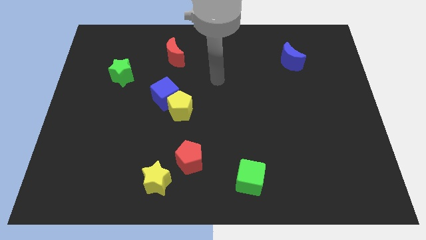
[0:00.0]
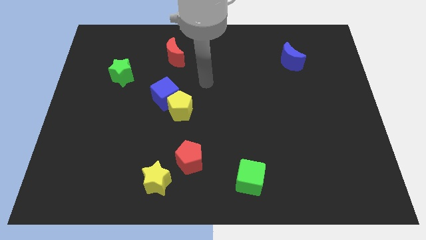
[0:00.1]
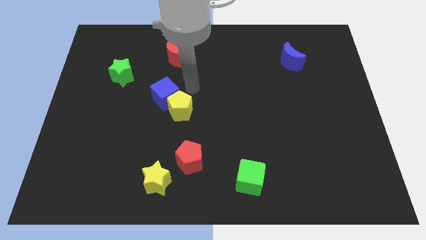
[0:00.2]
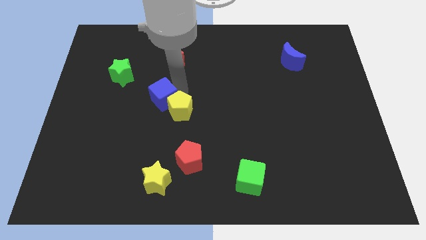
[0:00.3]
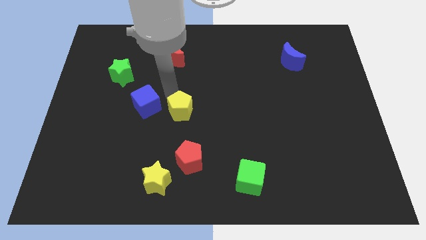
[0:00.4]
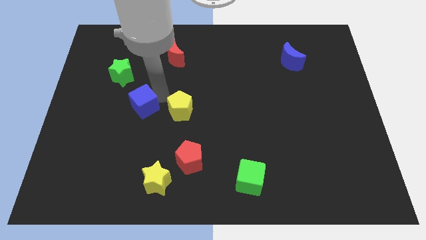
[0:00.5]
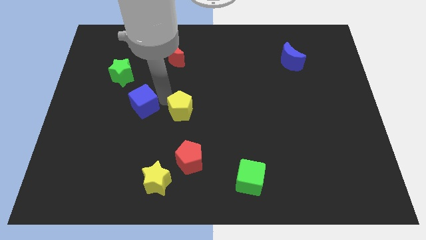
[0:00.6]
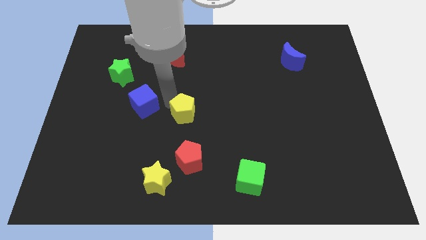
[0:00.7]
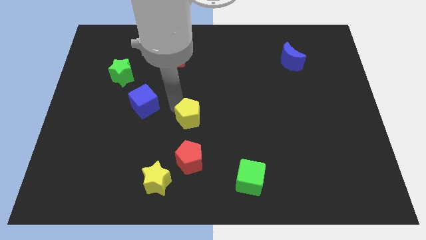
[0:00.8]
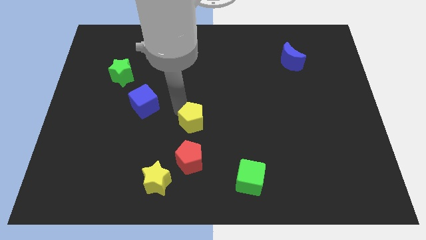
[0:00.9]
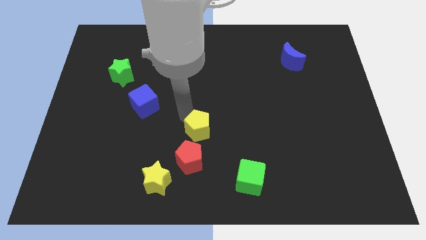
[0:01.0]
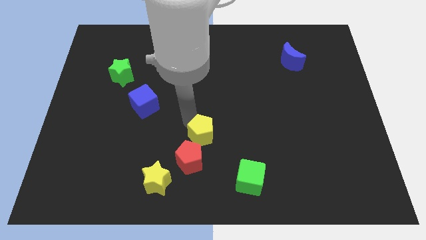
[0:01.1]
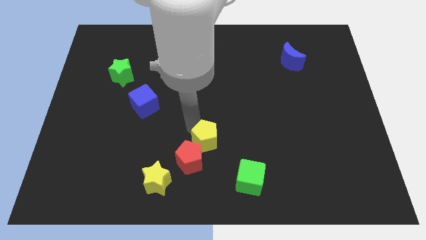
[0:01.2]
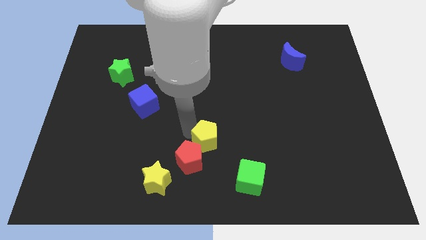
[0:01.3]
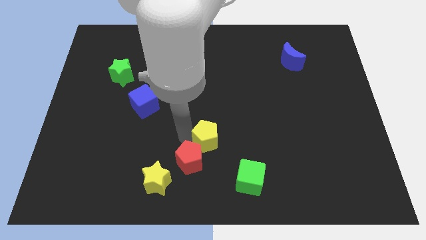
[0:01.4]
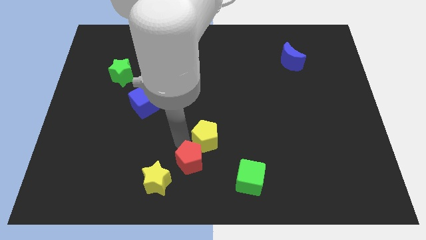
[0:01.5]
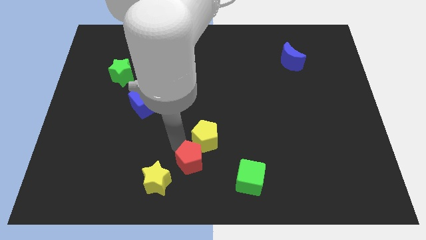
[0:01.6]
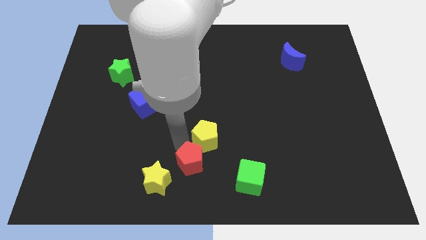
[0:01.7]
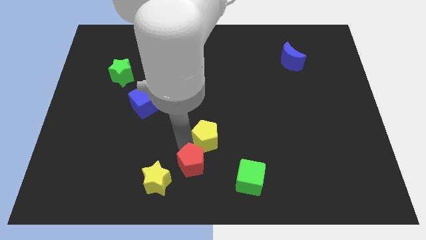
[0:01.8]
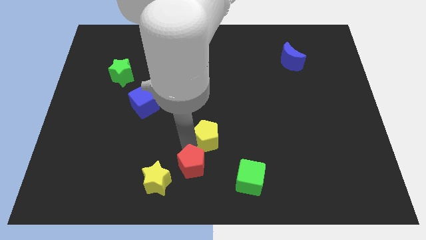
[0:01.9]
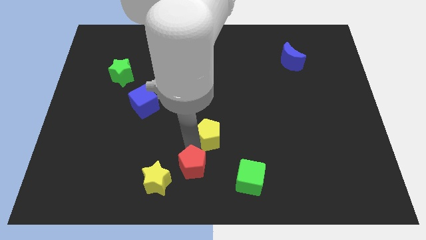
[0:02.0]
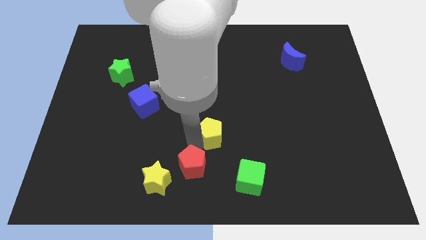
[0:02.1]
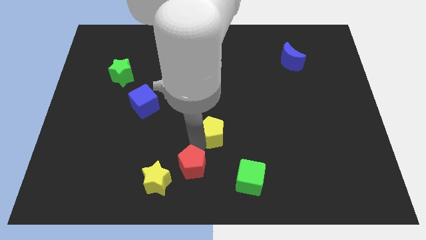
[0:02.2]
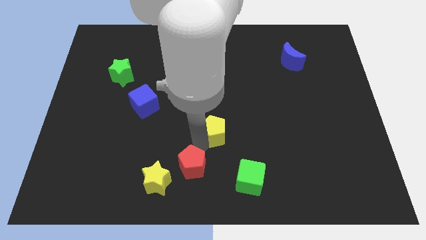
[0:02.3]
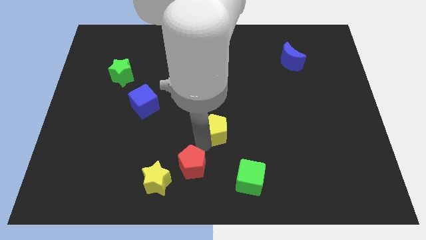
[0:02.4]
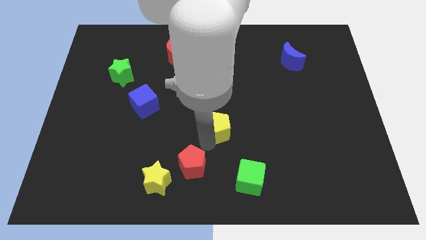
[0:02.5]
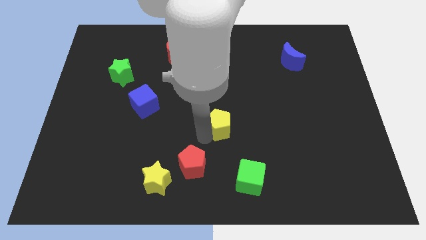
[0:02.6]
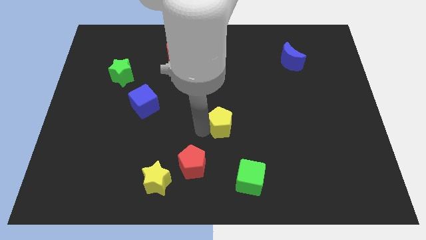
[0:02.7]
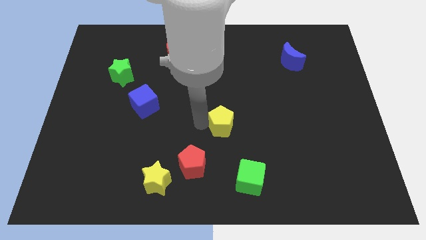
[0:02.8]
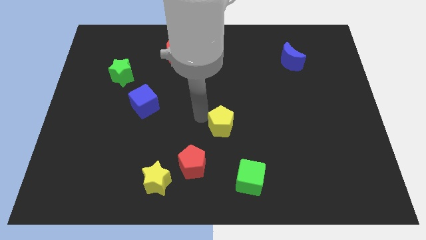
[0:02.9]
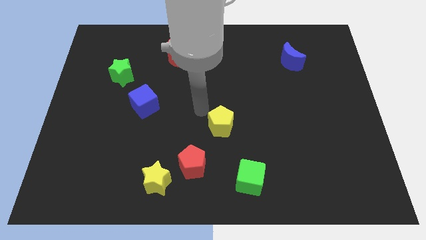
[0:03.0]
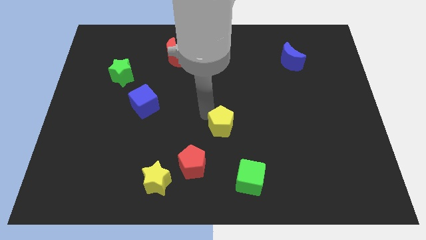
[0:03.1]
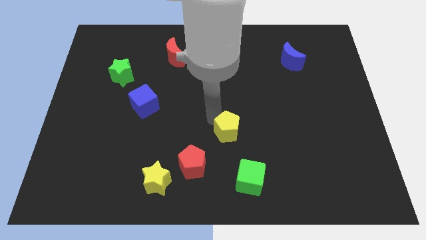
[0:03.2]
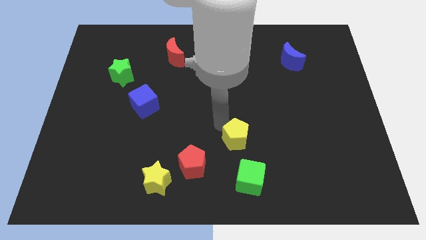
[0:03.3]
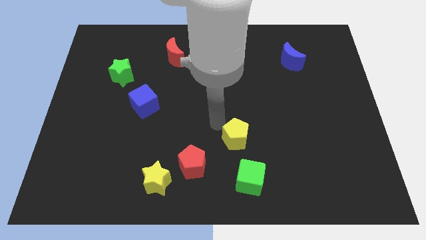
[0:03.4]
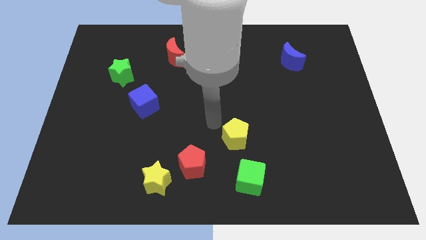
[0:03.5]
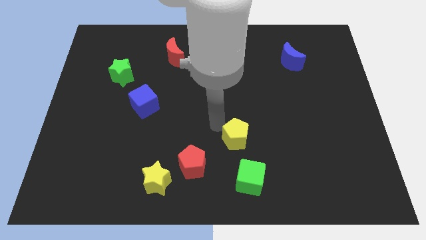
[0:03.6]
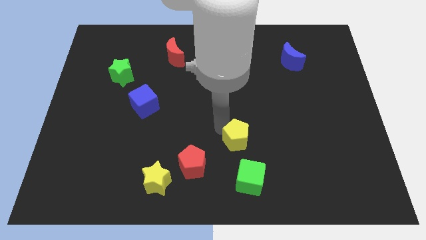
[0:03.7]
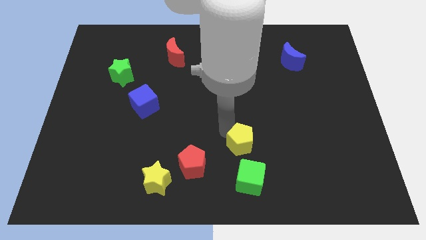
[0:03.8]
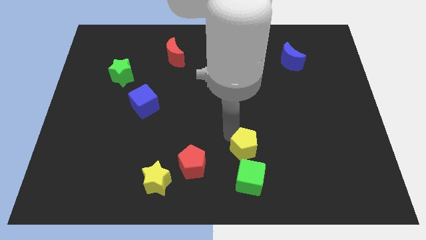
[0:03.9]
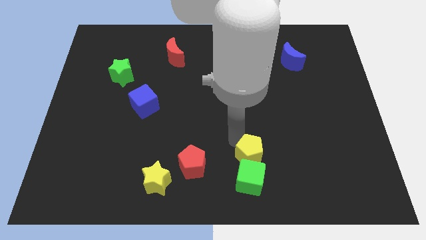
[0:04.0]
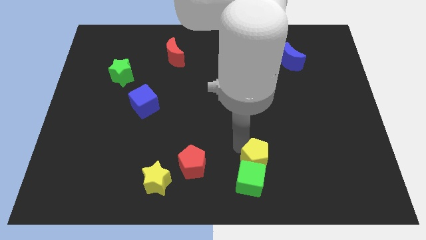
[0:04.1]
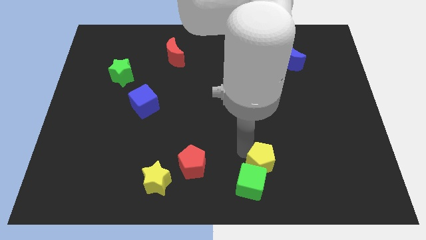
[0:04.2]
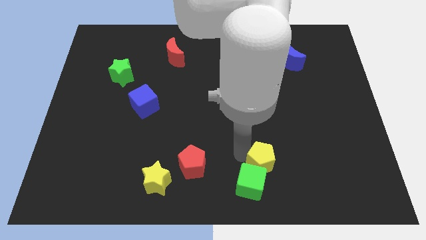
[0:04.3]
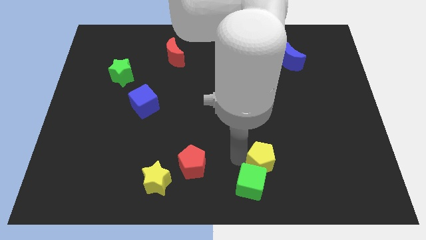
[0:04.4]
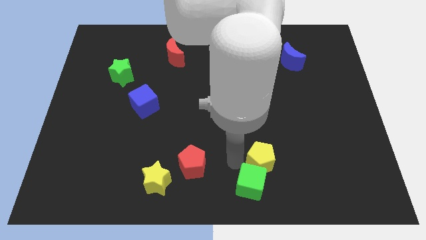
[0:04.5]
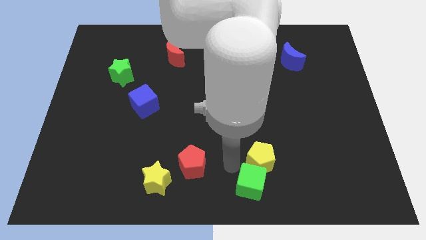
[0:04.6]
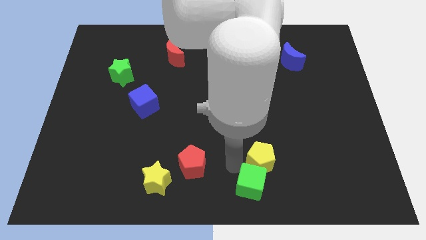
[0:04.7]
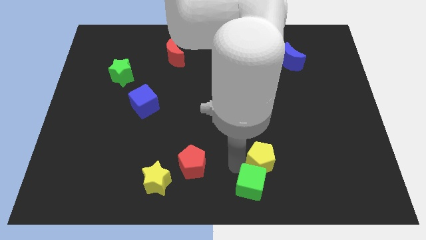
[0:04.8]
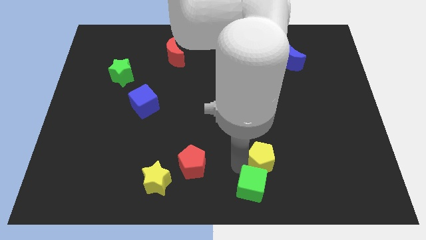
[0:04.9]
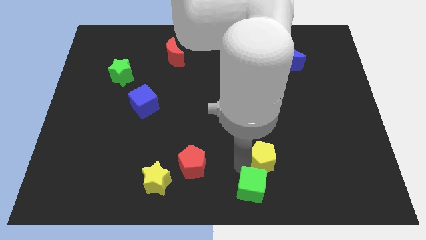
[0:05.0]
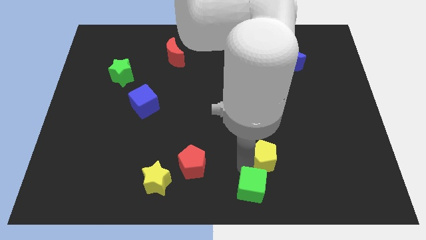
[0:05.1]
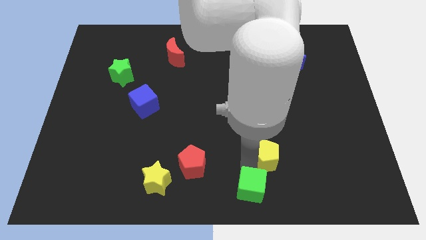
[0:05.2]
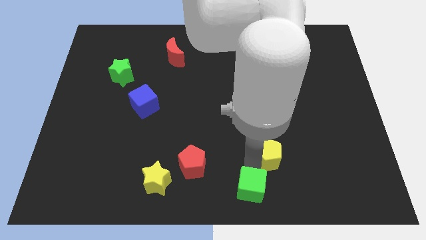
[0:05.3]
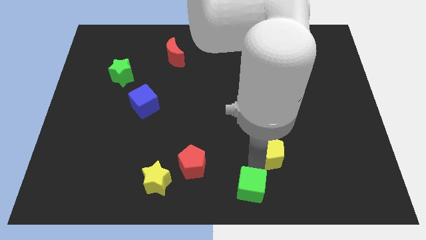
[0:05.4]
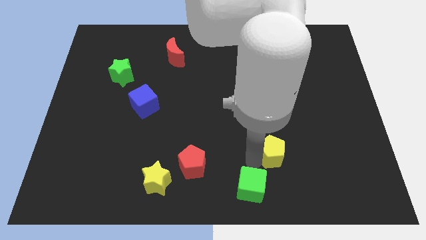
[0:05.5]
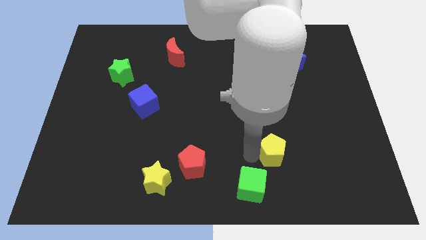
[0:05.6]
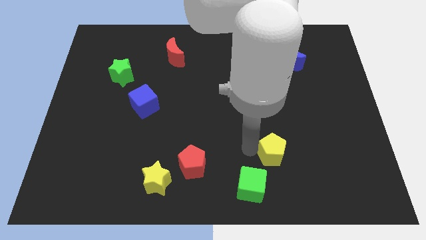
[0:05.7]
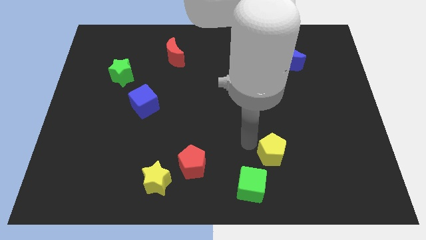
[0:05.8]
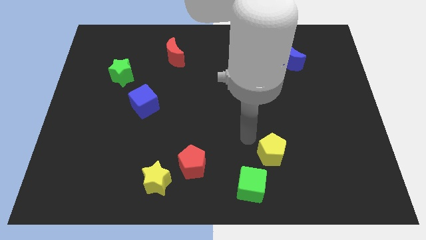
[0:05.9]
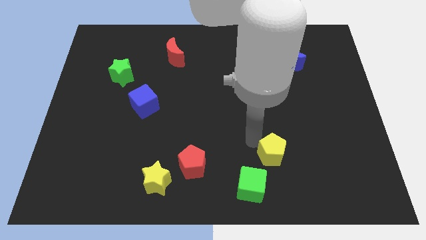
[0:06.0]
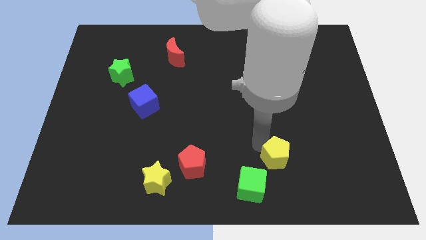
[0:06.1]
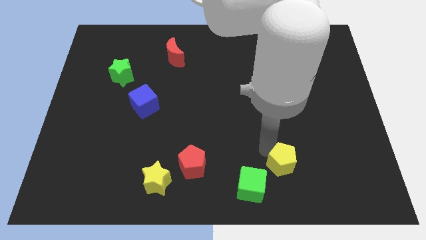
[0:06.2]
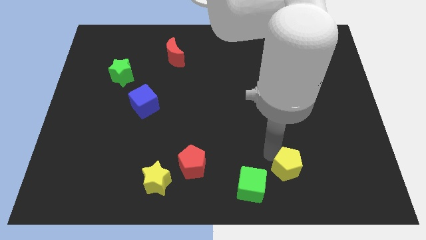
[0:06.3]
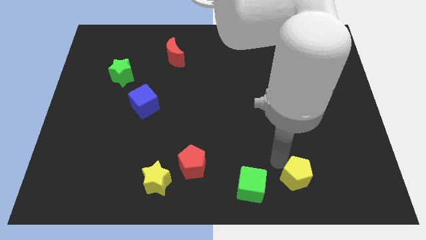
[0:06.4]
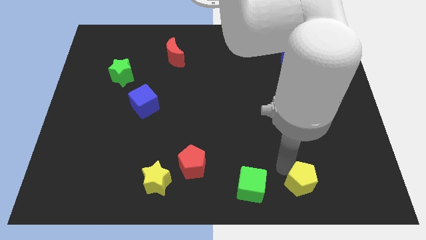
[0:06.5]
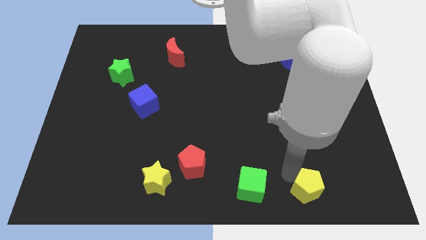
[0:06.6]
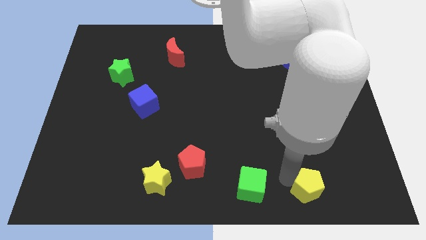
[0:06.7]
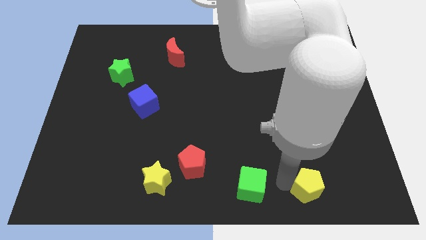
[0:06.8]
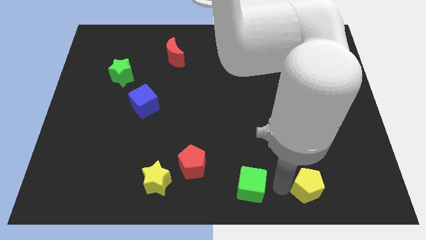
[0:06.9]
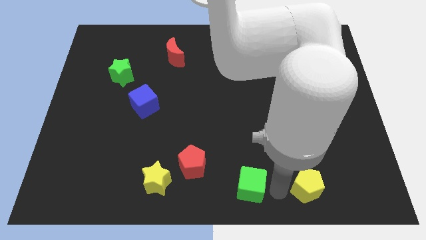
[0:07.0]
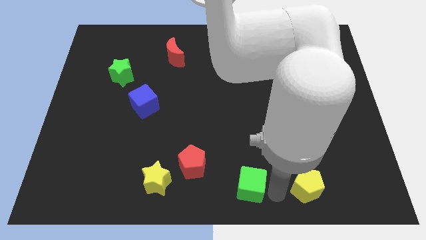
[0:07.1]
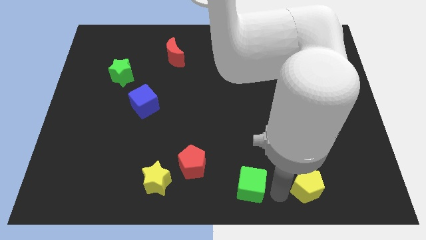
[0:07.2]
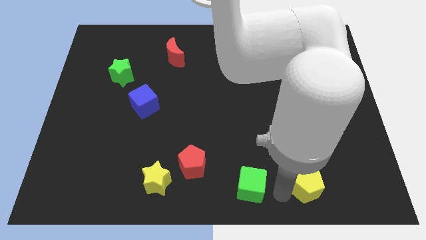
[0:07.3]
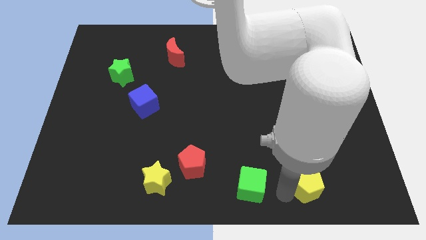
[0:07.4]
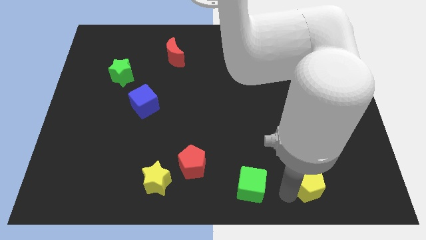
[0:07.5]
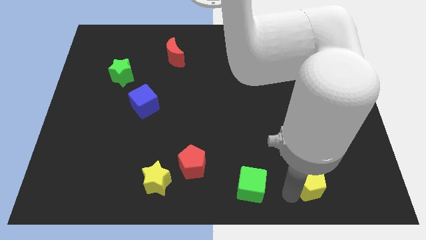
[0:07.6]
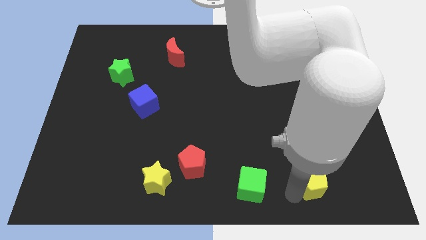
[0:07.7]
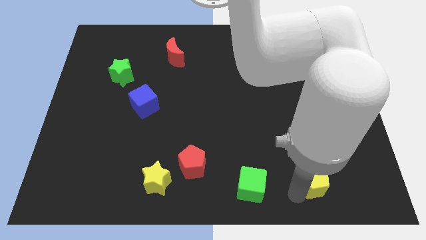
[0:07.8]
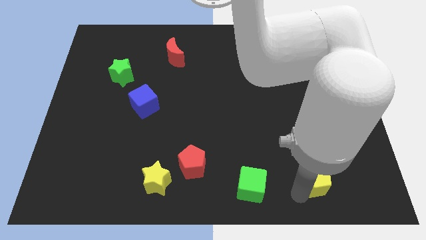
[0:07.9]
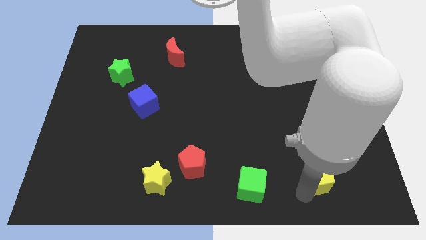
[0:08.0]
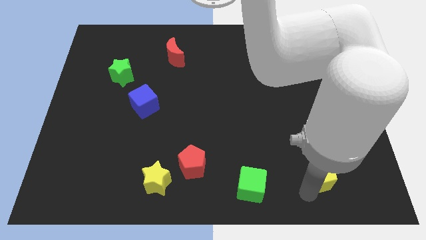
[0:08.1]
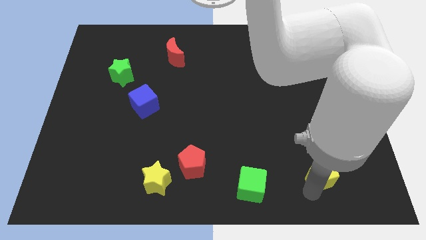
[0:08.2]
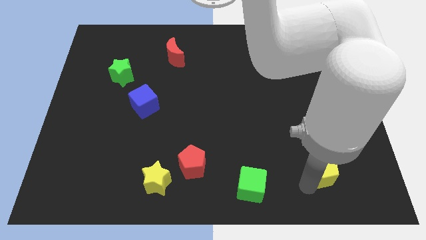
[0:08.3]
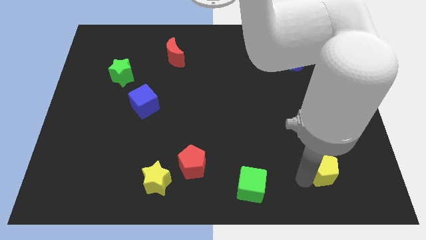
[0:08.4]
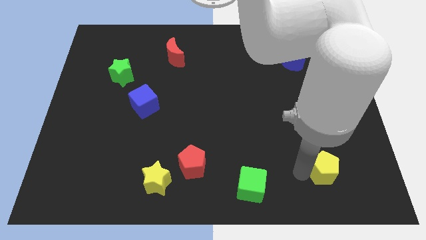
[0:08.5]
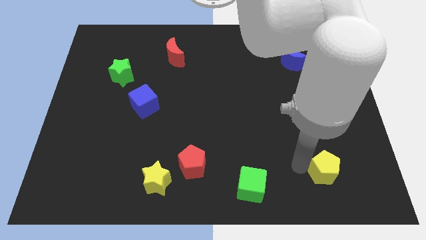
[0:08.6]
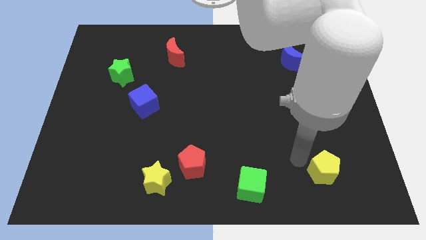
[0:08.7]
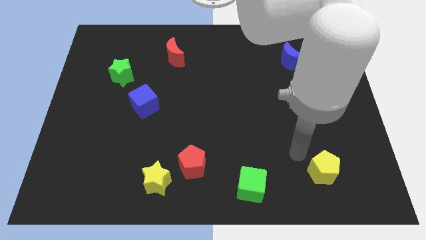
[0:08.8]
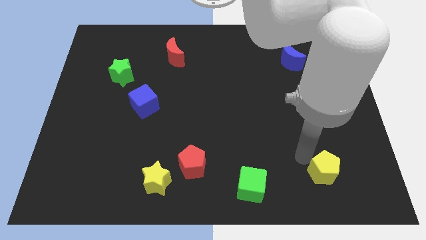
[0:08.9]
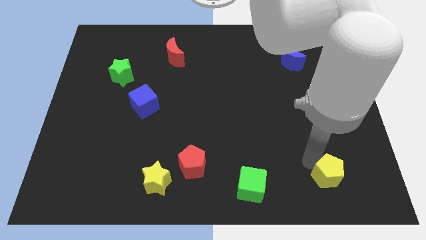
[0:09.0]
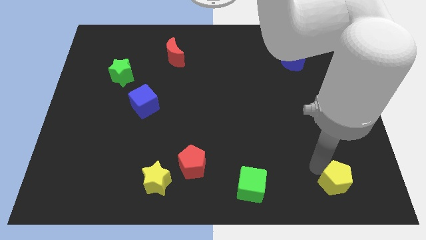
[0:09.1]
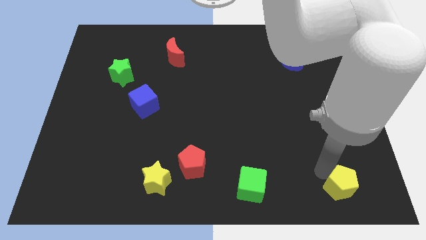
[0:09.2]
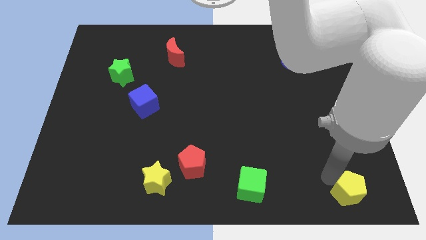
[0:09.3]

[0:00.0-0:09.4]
put the yellow pentagon to the bottom right
